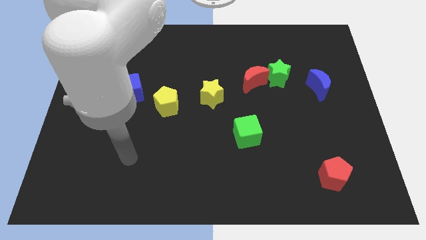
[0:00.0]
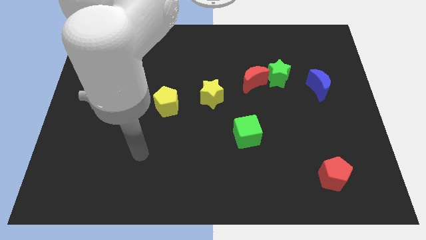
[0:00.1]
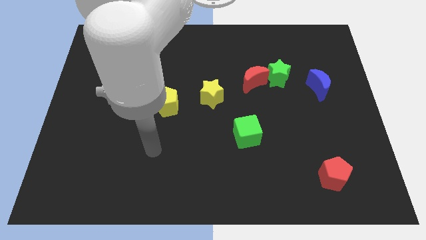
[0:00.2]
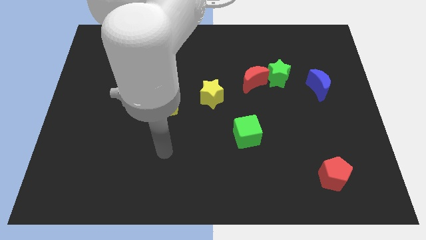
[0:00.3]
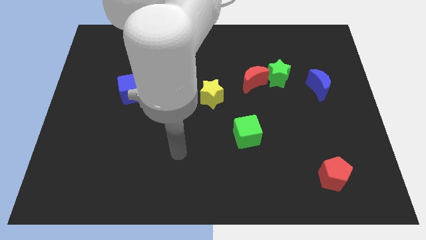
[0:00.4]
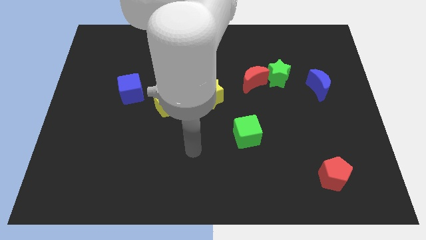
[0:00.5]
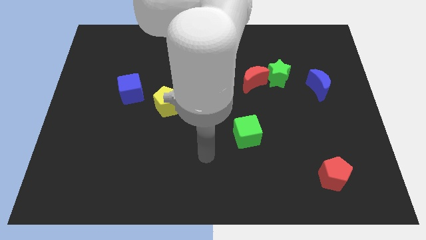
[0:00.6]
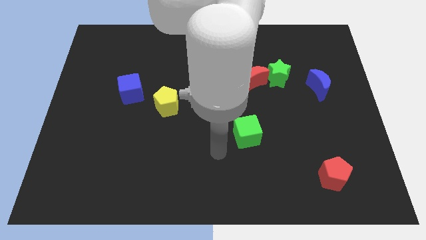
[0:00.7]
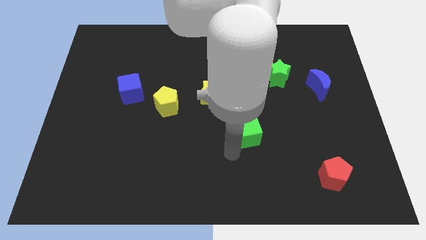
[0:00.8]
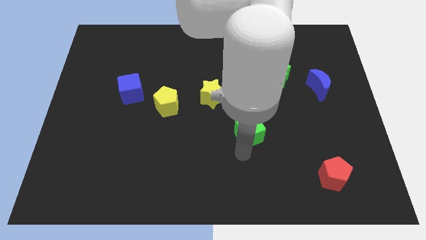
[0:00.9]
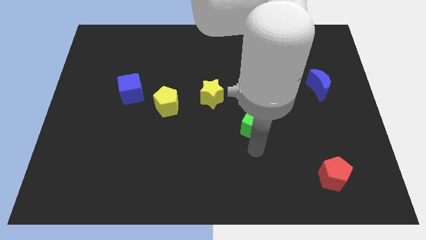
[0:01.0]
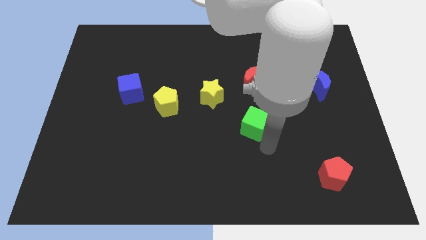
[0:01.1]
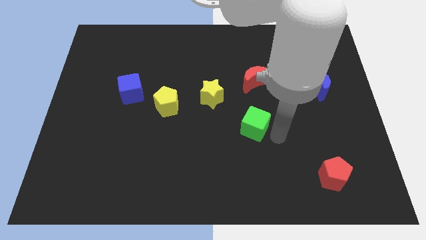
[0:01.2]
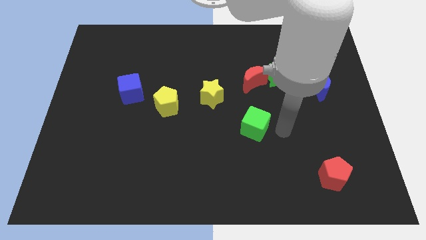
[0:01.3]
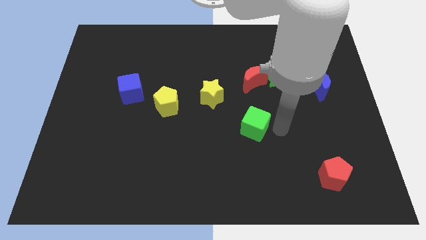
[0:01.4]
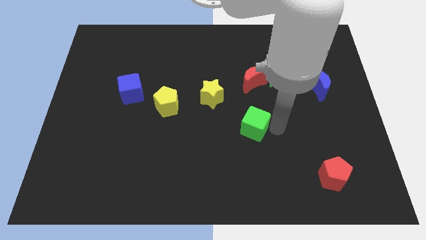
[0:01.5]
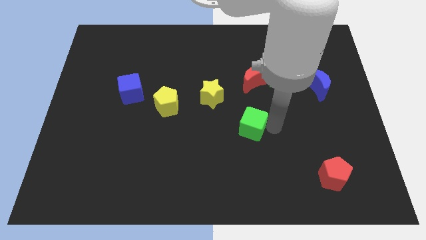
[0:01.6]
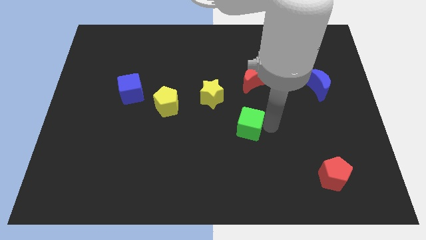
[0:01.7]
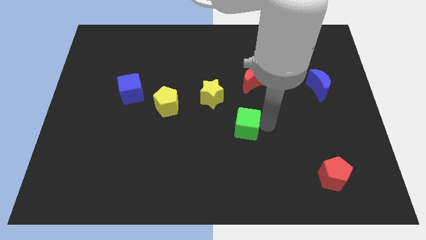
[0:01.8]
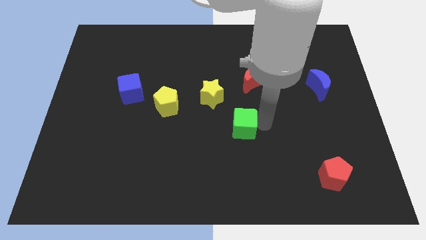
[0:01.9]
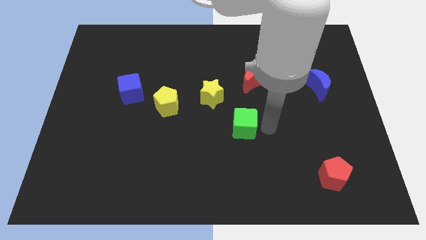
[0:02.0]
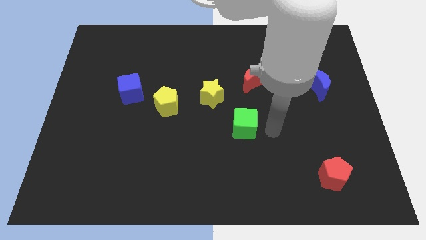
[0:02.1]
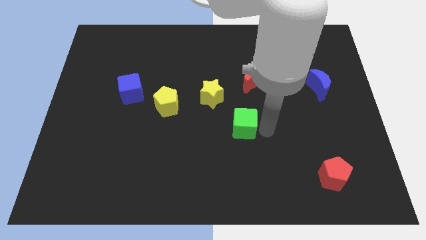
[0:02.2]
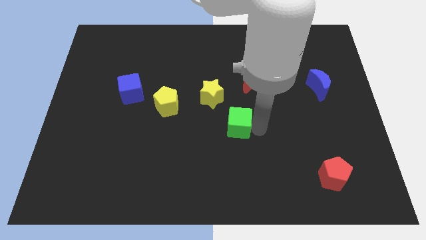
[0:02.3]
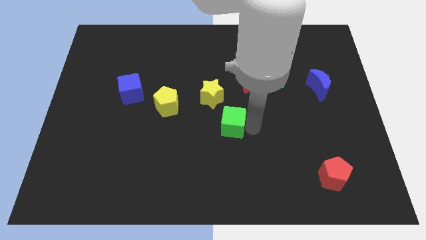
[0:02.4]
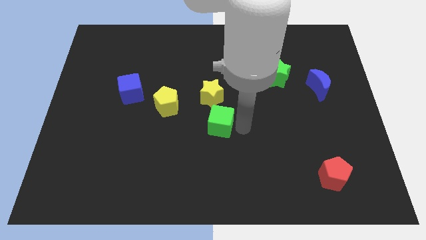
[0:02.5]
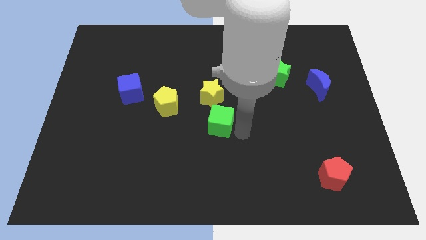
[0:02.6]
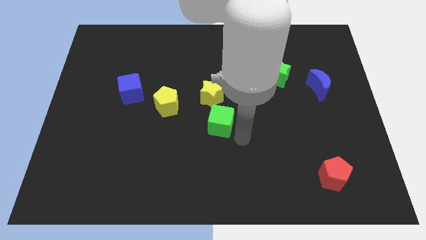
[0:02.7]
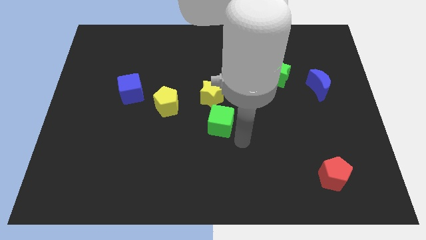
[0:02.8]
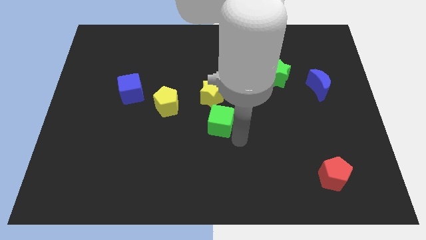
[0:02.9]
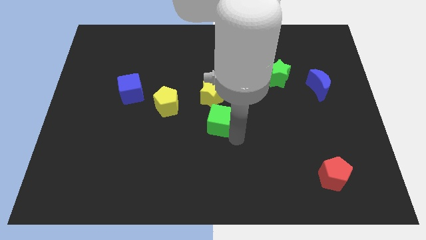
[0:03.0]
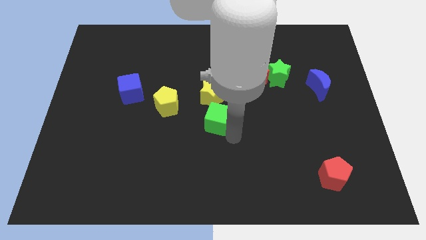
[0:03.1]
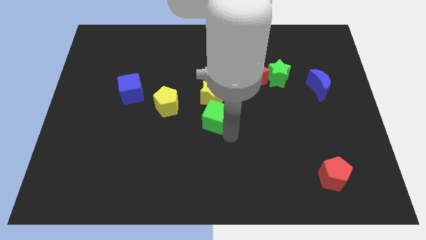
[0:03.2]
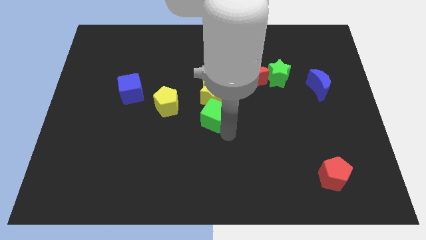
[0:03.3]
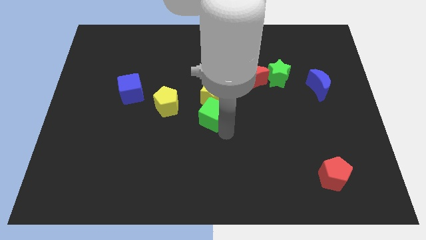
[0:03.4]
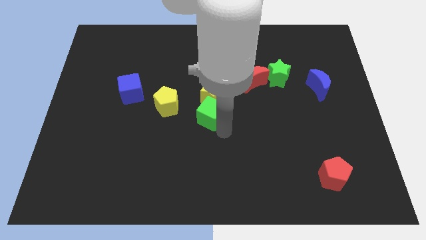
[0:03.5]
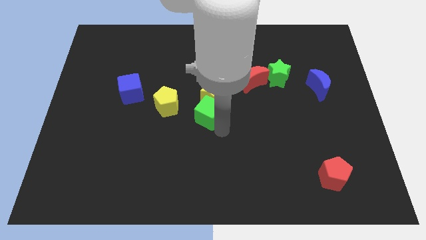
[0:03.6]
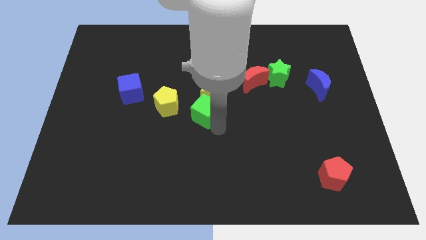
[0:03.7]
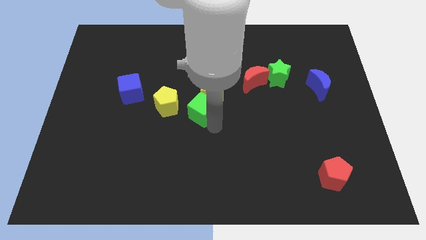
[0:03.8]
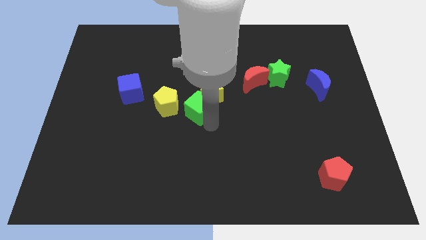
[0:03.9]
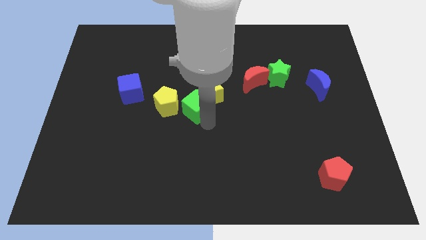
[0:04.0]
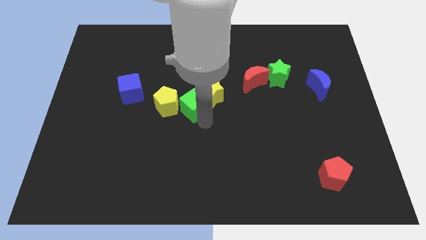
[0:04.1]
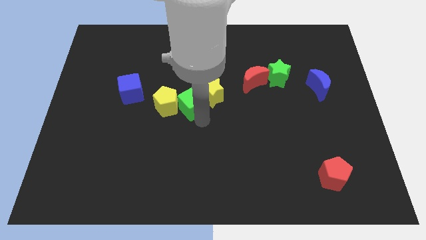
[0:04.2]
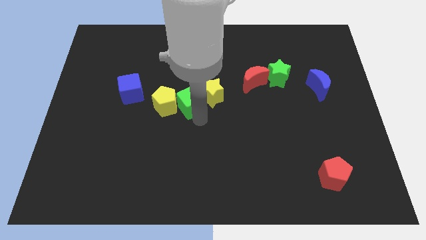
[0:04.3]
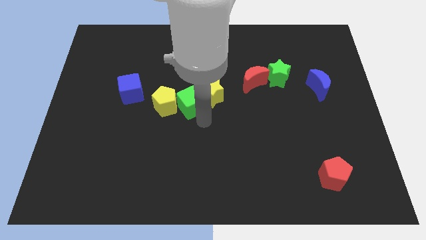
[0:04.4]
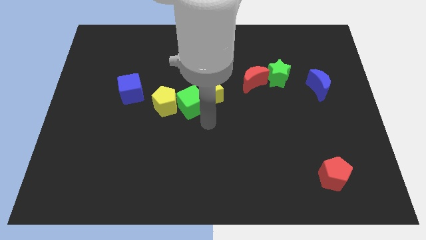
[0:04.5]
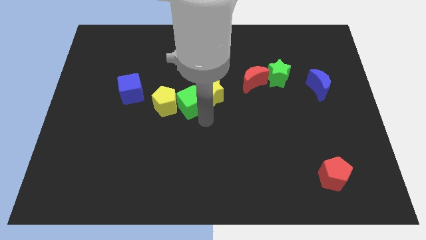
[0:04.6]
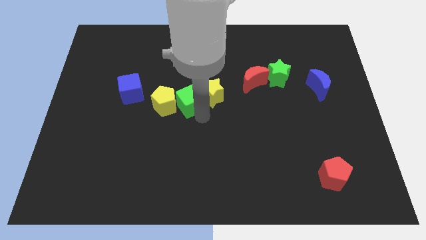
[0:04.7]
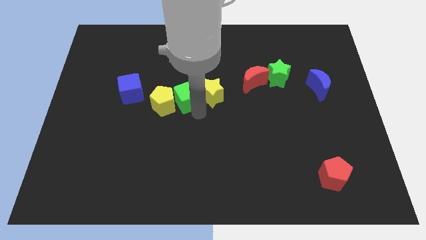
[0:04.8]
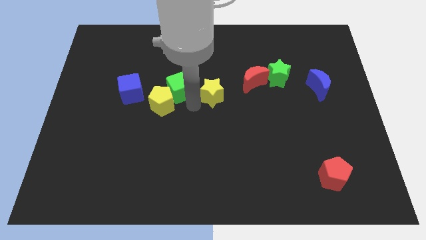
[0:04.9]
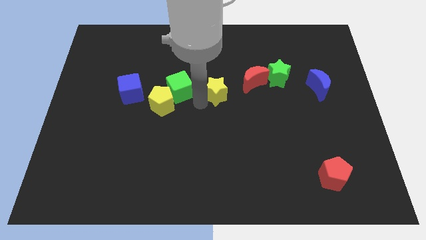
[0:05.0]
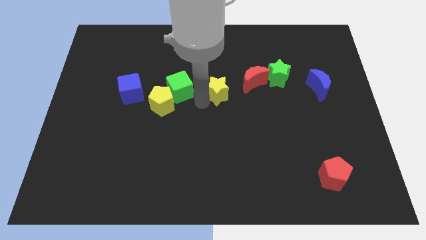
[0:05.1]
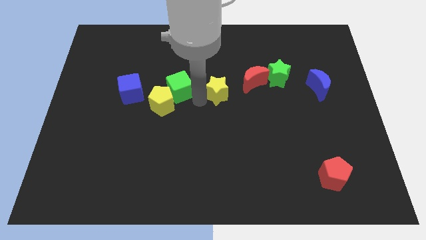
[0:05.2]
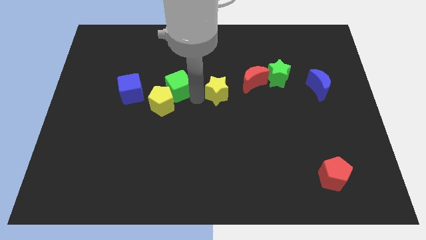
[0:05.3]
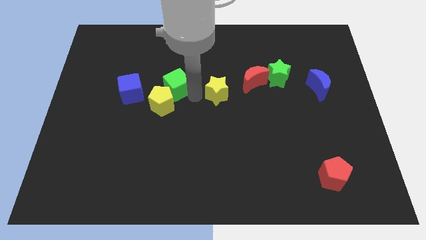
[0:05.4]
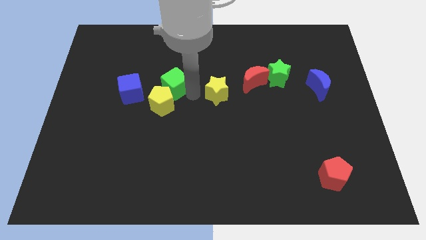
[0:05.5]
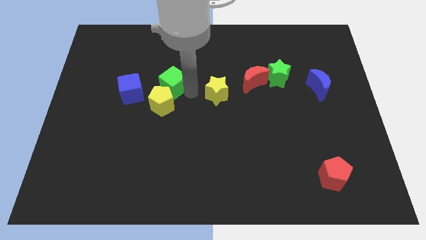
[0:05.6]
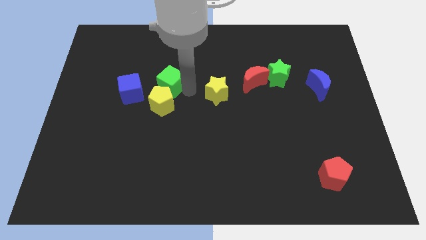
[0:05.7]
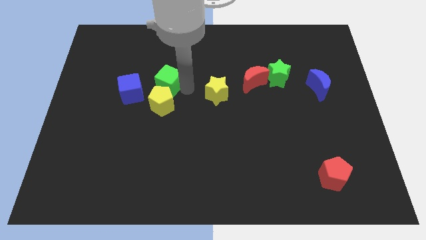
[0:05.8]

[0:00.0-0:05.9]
push the green cube diagonally up and to the right of the blue cube

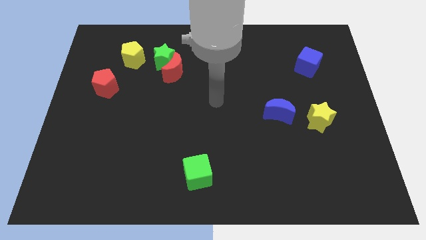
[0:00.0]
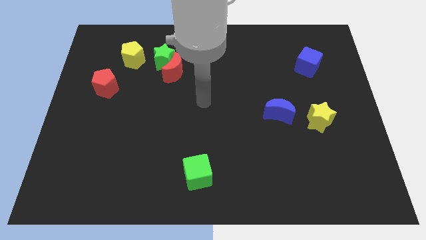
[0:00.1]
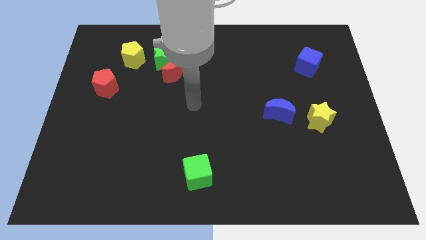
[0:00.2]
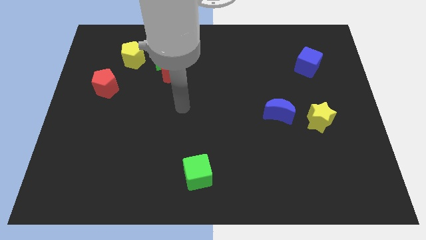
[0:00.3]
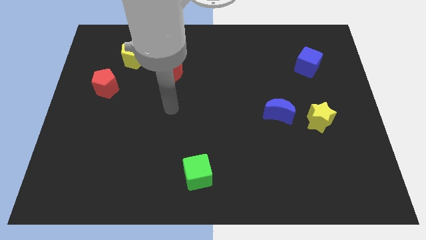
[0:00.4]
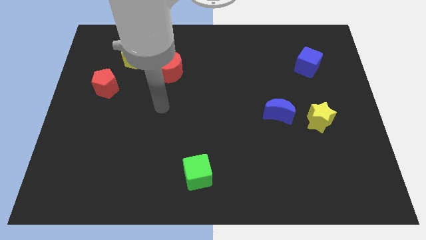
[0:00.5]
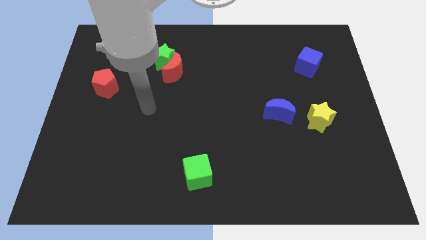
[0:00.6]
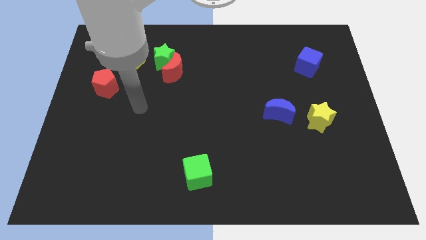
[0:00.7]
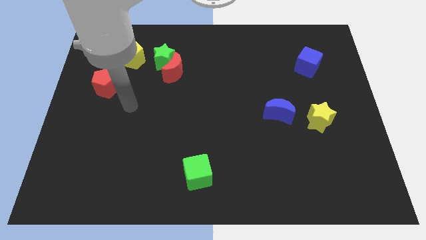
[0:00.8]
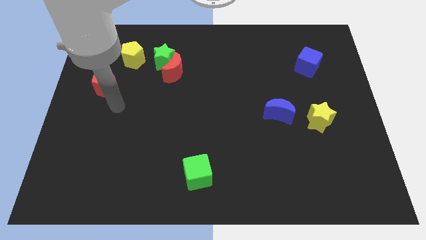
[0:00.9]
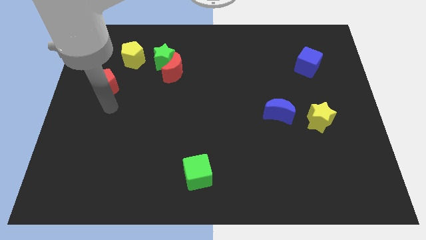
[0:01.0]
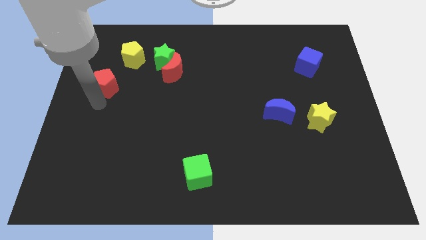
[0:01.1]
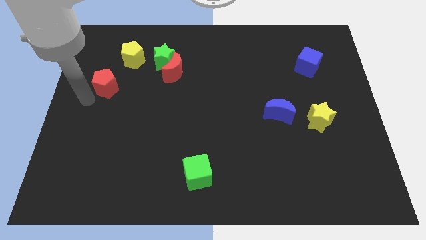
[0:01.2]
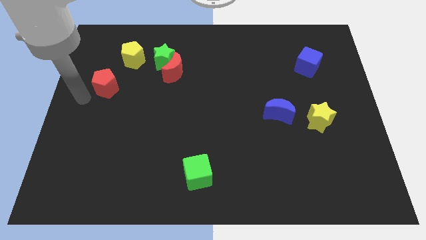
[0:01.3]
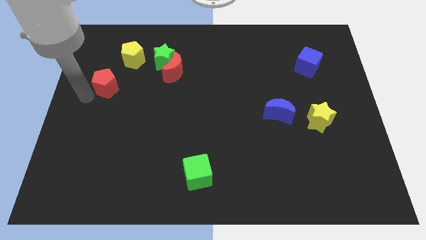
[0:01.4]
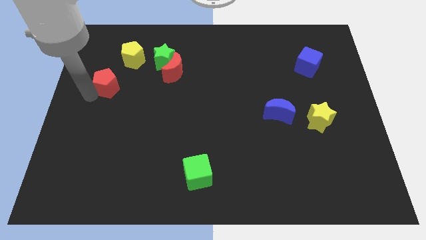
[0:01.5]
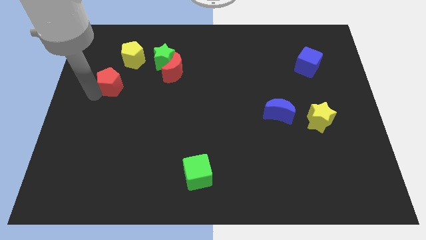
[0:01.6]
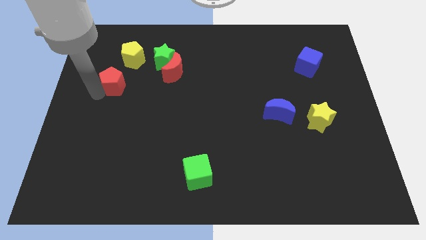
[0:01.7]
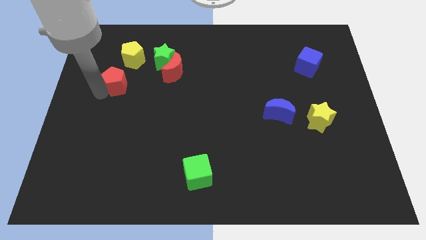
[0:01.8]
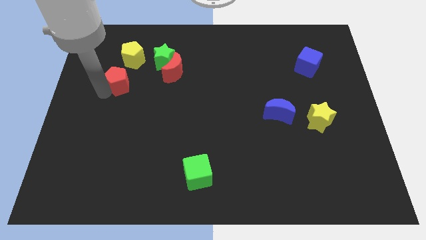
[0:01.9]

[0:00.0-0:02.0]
put the red pentagon to the left of the red moon
